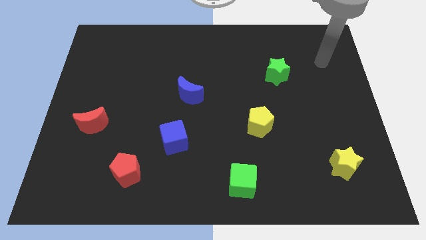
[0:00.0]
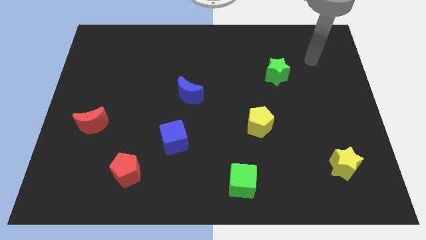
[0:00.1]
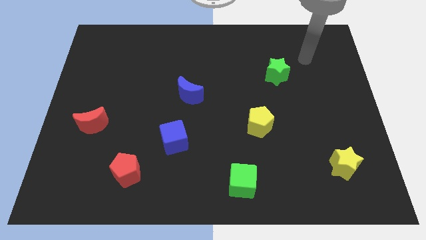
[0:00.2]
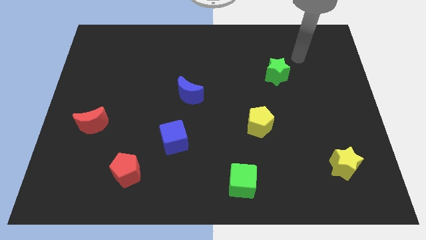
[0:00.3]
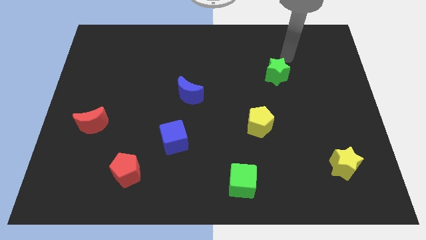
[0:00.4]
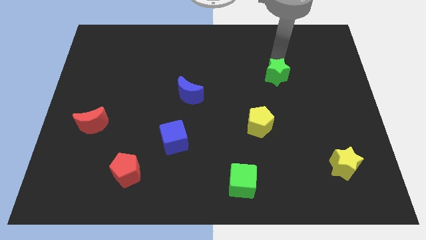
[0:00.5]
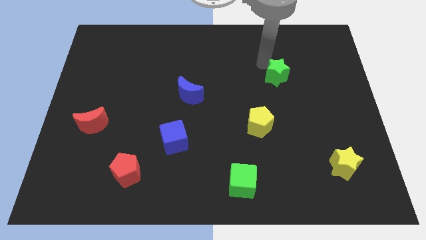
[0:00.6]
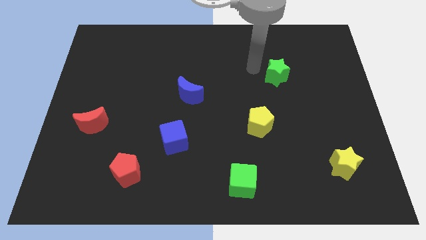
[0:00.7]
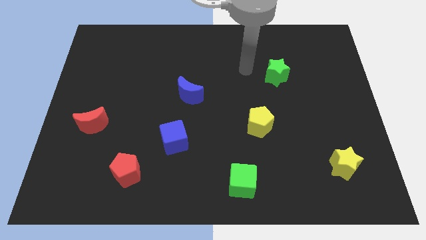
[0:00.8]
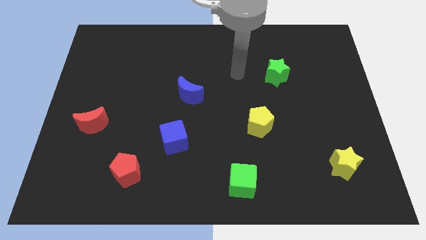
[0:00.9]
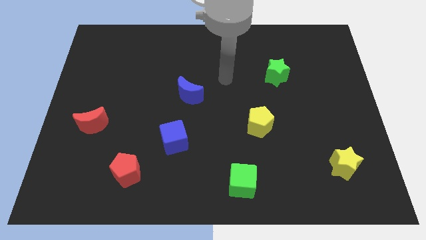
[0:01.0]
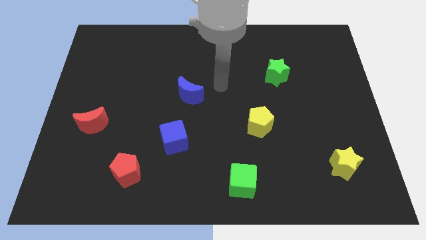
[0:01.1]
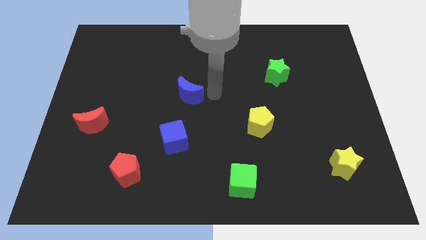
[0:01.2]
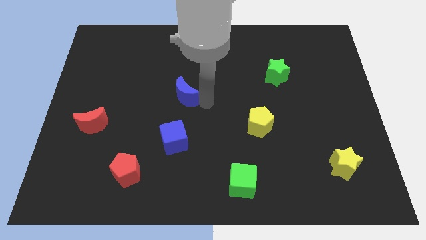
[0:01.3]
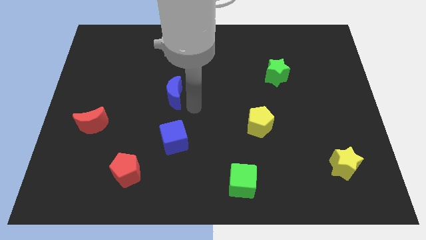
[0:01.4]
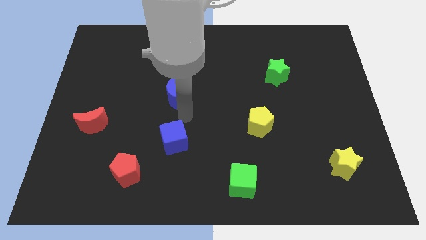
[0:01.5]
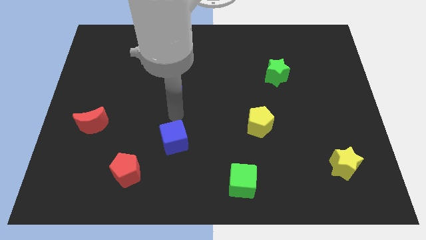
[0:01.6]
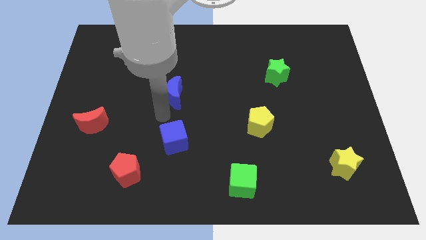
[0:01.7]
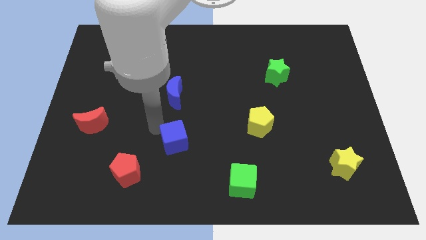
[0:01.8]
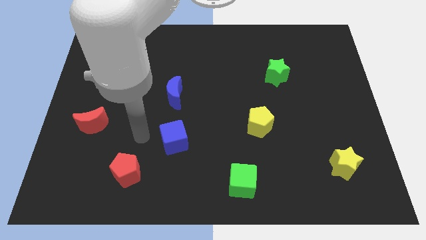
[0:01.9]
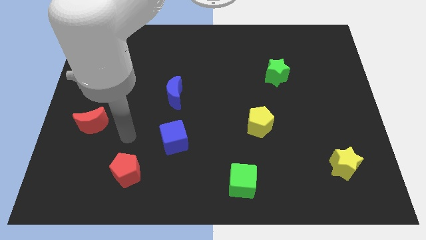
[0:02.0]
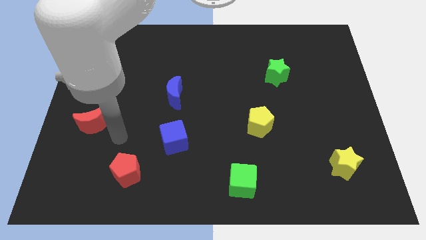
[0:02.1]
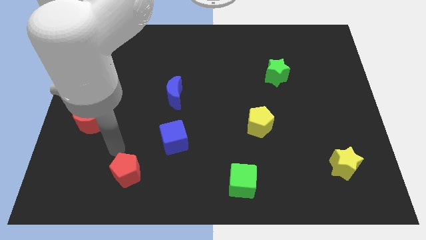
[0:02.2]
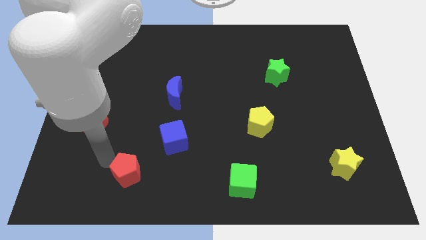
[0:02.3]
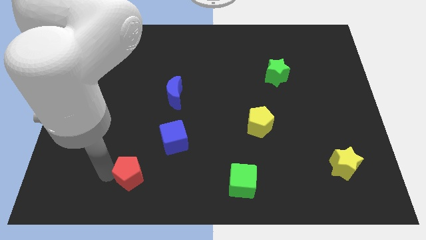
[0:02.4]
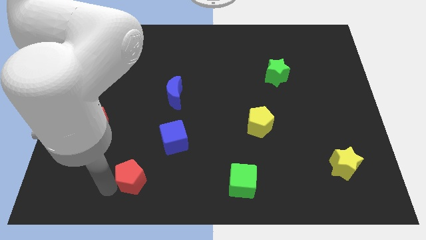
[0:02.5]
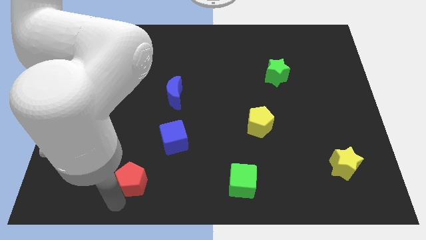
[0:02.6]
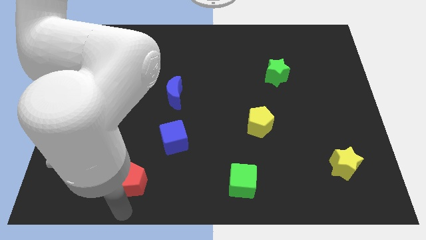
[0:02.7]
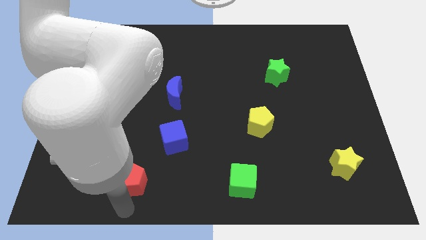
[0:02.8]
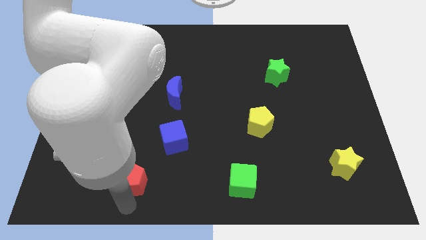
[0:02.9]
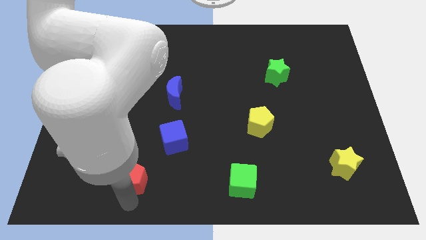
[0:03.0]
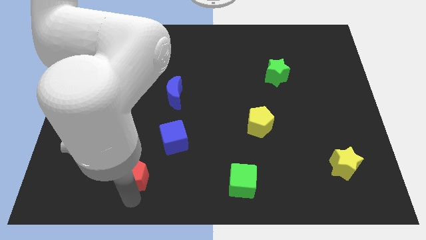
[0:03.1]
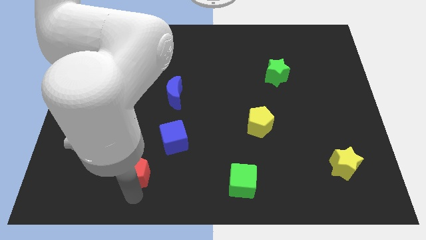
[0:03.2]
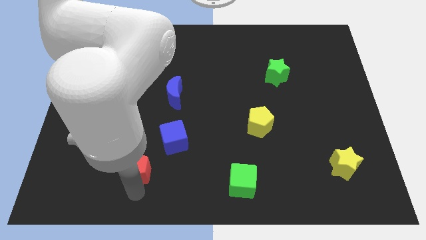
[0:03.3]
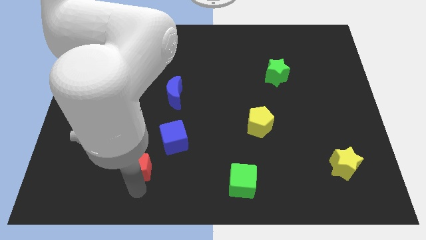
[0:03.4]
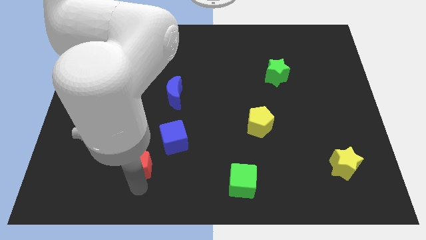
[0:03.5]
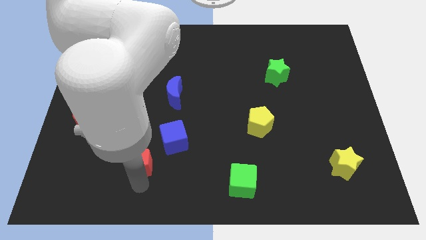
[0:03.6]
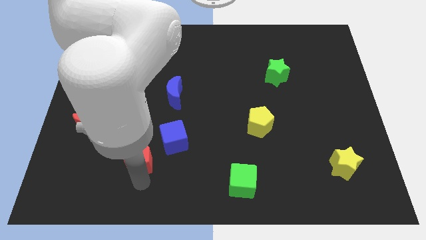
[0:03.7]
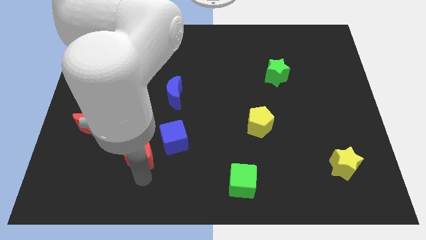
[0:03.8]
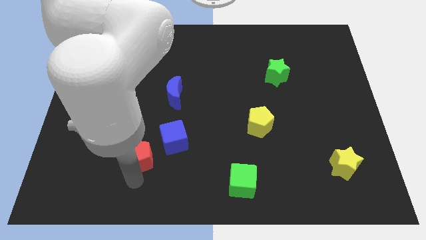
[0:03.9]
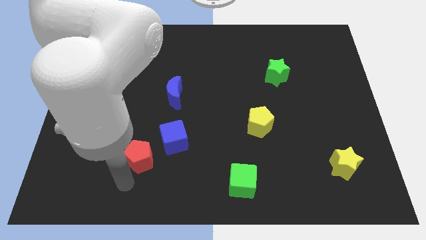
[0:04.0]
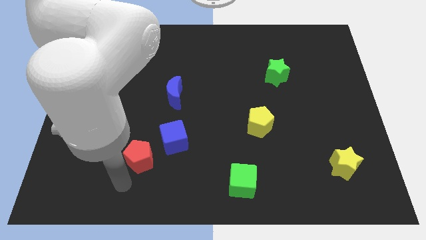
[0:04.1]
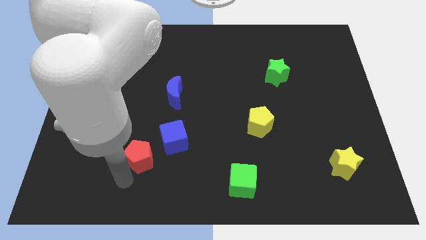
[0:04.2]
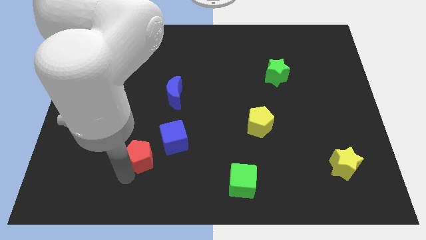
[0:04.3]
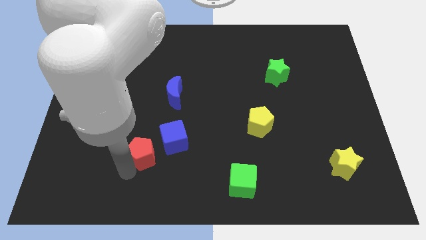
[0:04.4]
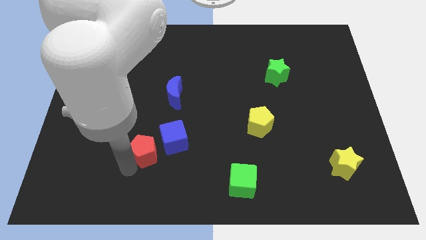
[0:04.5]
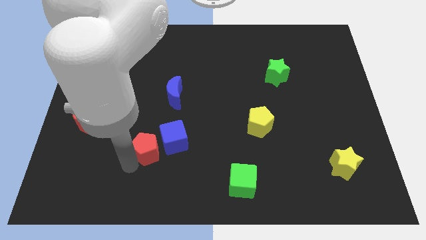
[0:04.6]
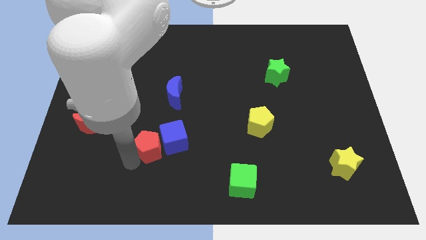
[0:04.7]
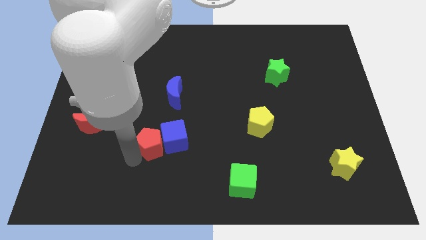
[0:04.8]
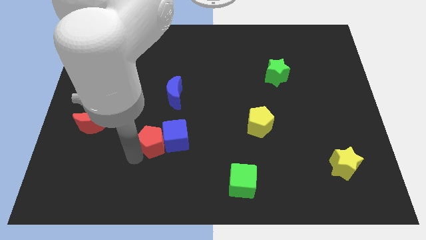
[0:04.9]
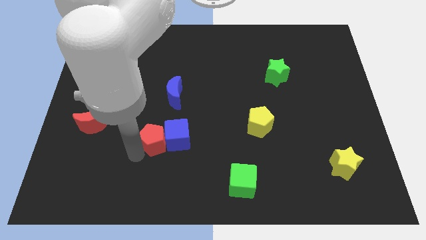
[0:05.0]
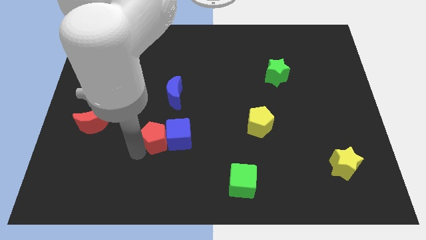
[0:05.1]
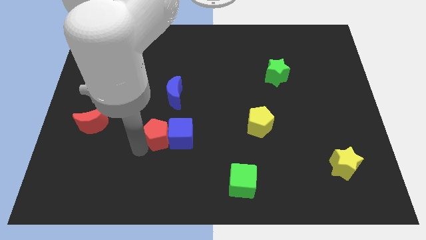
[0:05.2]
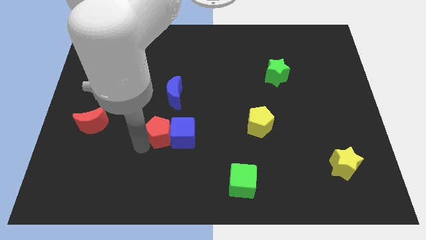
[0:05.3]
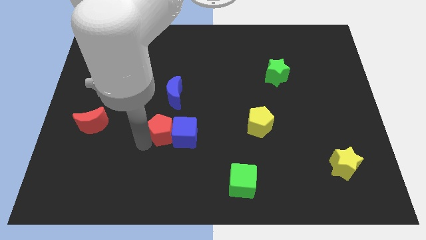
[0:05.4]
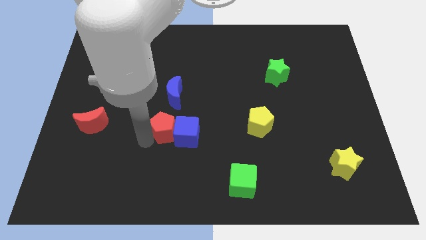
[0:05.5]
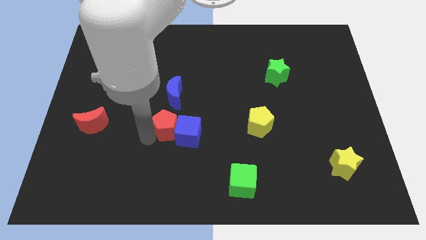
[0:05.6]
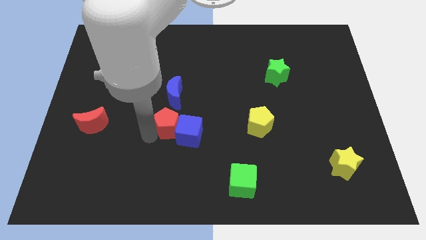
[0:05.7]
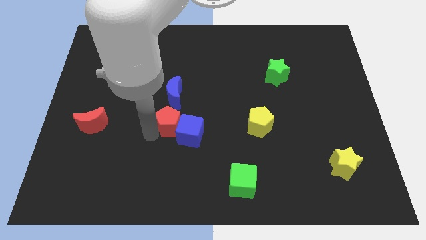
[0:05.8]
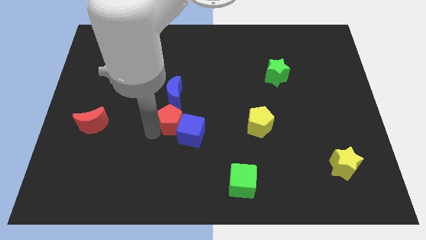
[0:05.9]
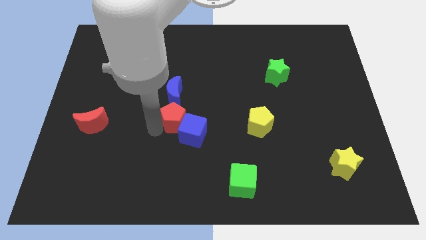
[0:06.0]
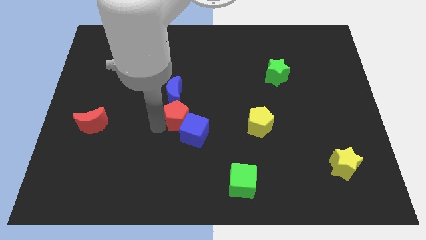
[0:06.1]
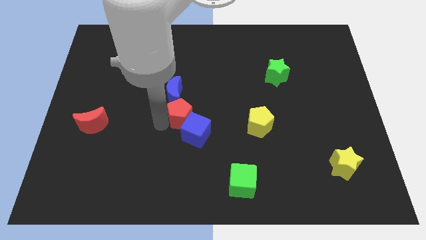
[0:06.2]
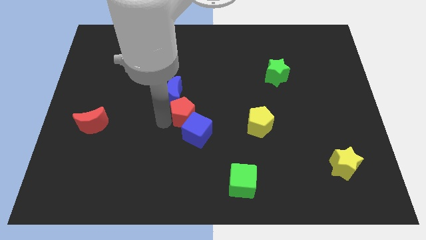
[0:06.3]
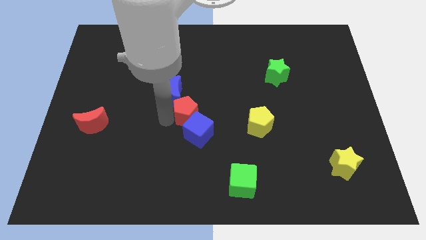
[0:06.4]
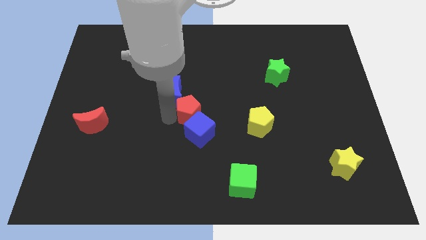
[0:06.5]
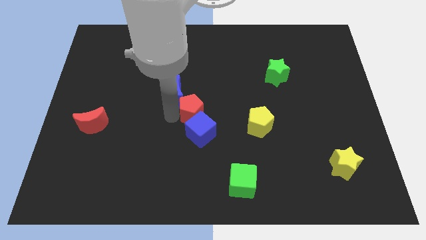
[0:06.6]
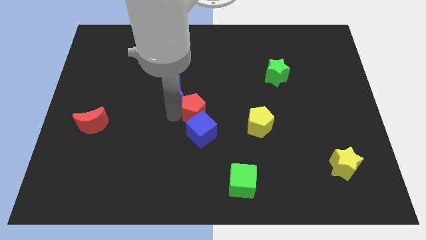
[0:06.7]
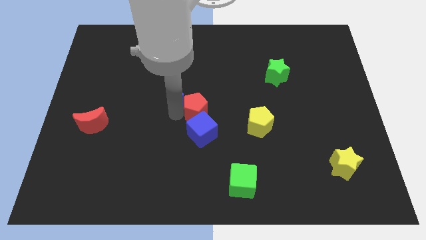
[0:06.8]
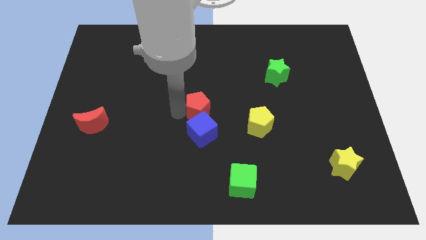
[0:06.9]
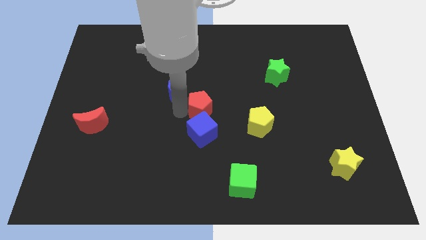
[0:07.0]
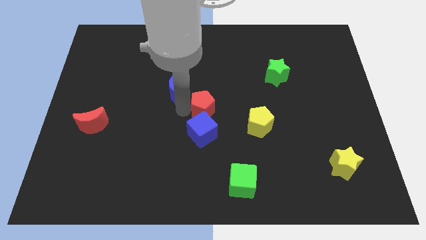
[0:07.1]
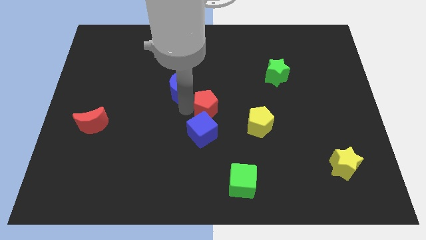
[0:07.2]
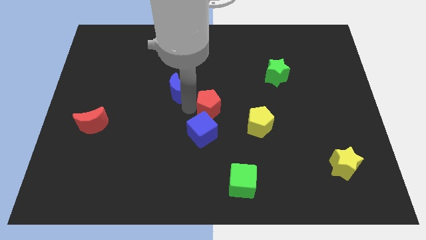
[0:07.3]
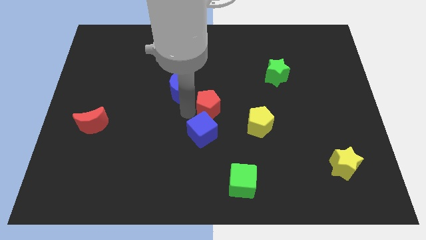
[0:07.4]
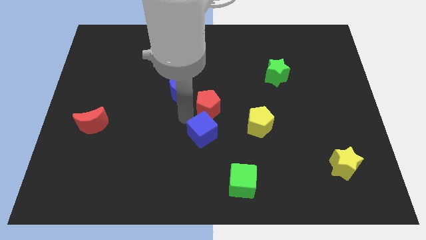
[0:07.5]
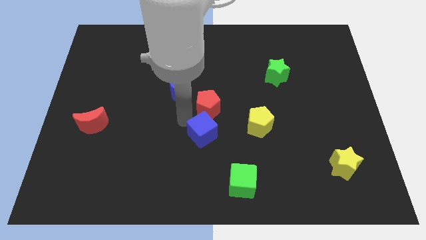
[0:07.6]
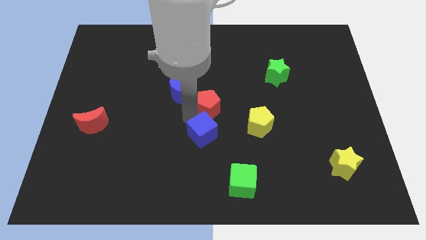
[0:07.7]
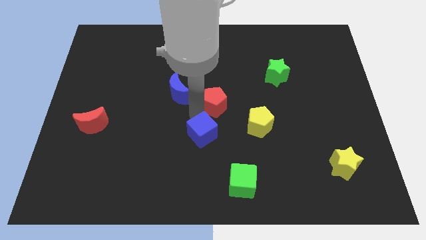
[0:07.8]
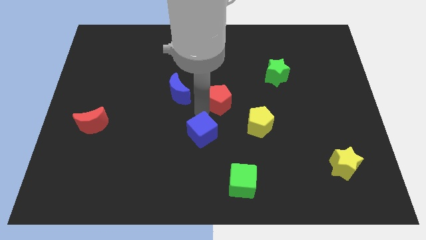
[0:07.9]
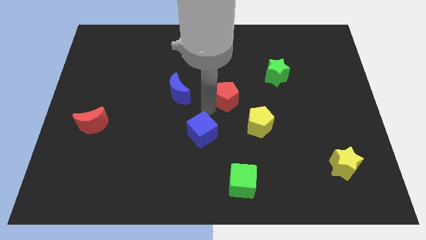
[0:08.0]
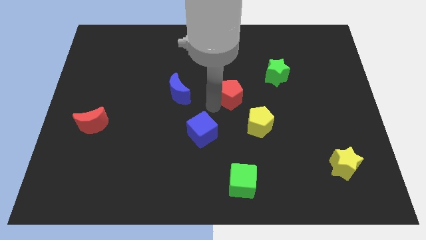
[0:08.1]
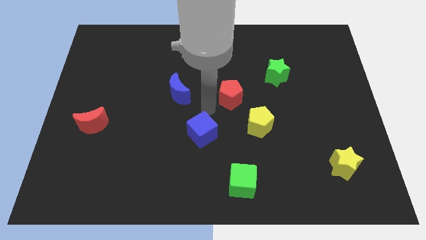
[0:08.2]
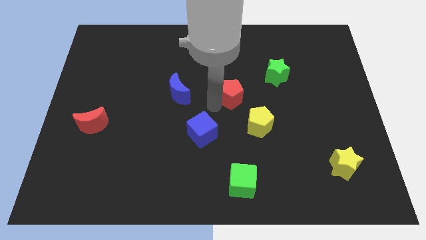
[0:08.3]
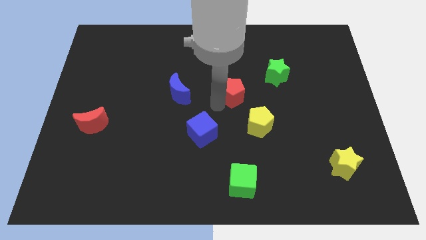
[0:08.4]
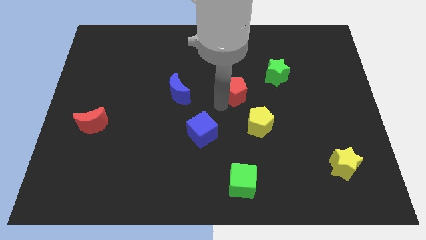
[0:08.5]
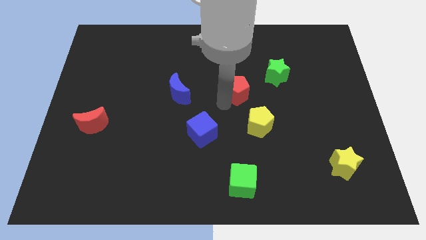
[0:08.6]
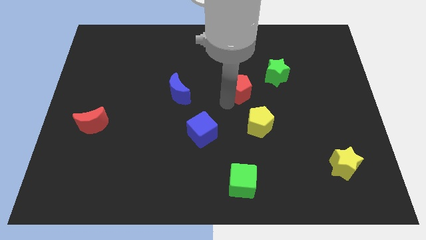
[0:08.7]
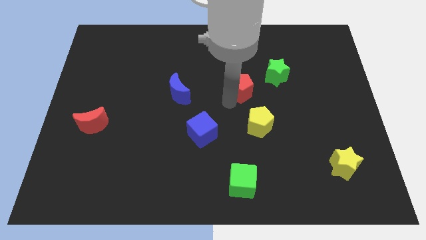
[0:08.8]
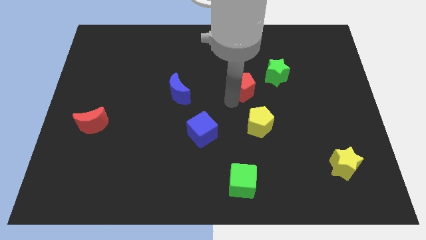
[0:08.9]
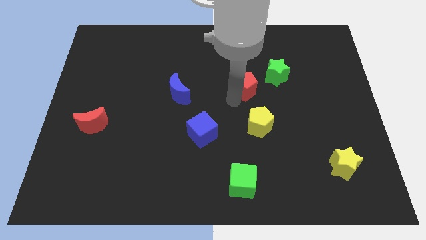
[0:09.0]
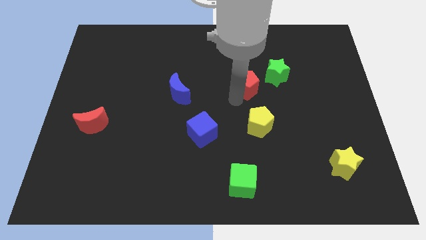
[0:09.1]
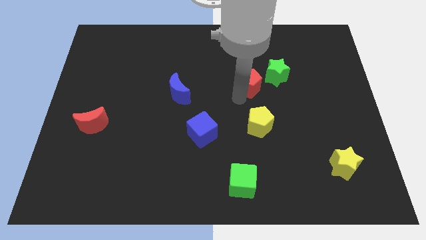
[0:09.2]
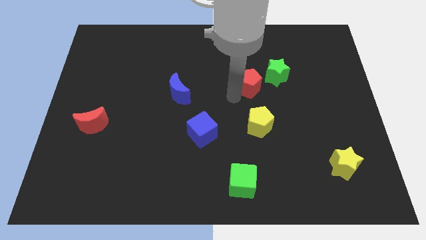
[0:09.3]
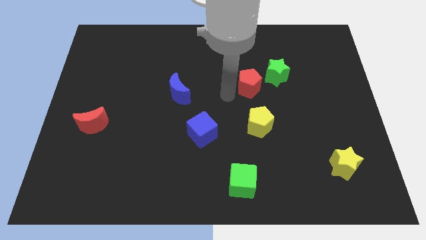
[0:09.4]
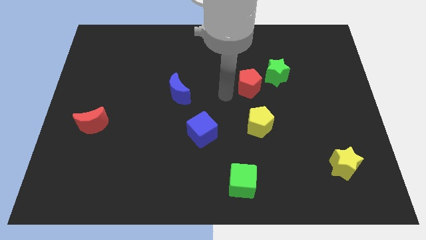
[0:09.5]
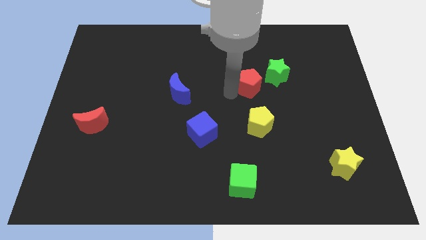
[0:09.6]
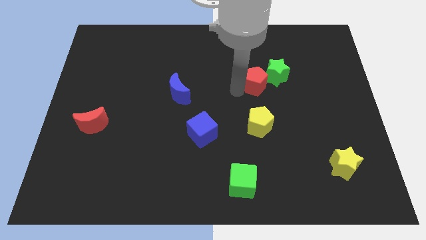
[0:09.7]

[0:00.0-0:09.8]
move the red pentagon to the green star
